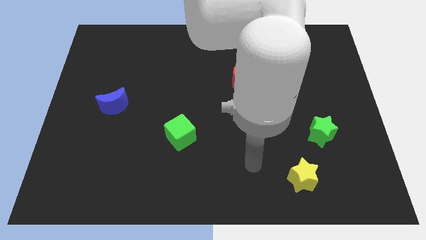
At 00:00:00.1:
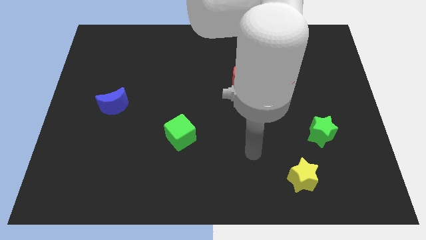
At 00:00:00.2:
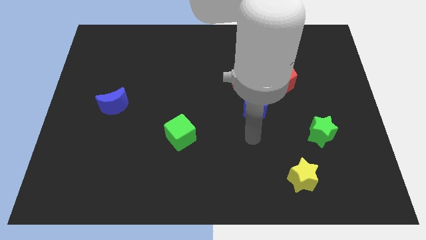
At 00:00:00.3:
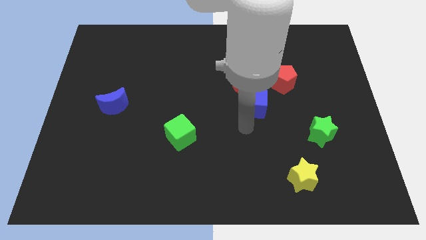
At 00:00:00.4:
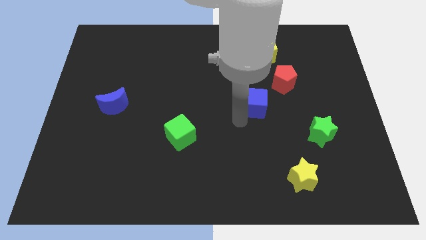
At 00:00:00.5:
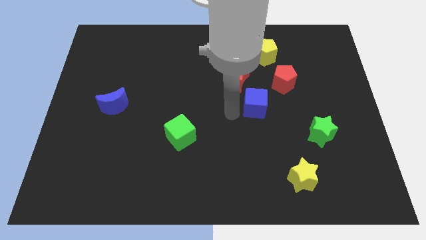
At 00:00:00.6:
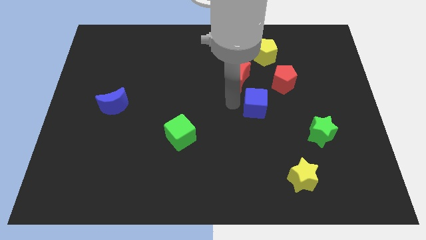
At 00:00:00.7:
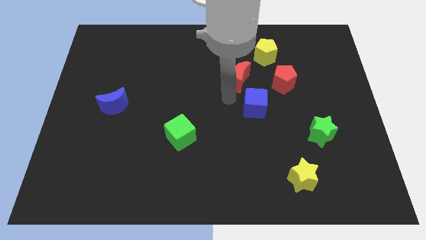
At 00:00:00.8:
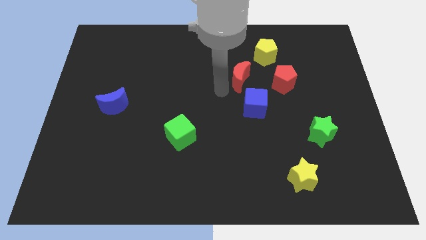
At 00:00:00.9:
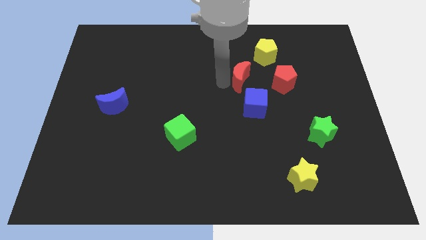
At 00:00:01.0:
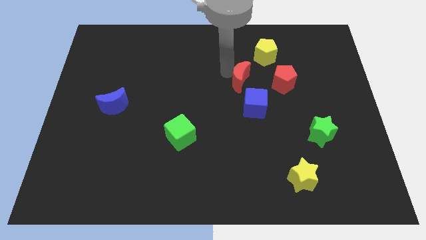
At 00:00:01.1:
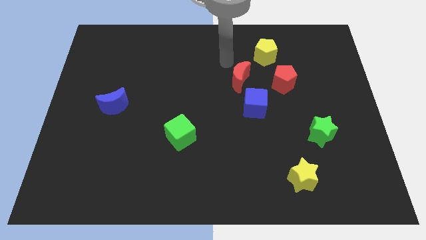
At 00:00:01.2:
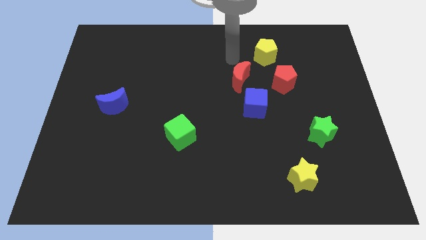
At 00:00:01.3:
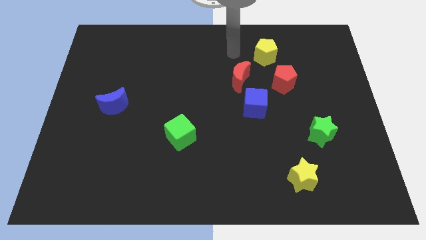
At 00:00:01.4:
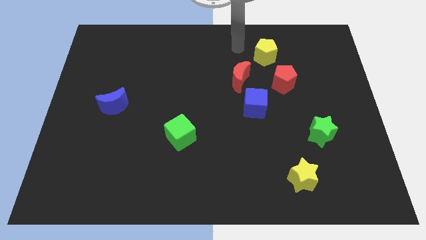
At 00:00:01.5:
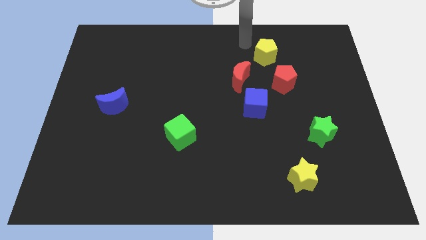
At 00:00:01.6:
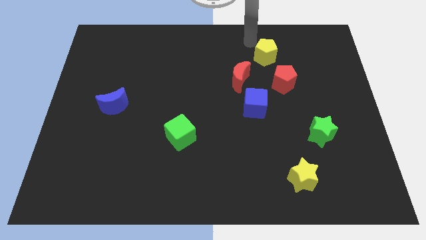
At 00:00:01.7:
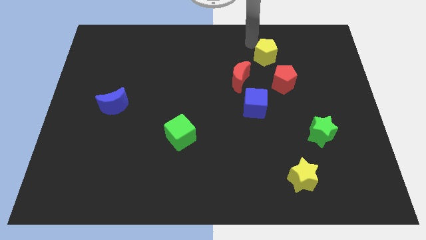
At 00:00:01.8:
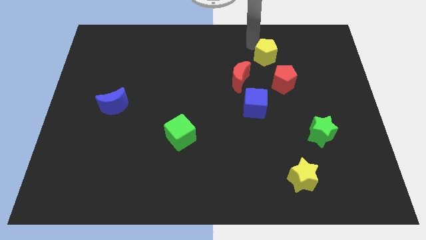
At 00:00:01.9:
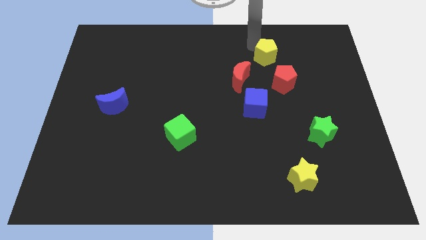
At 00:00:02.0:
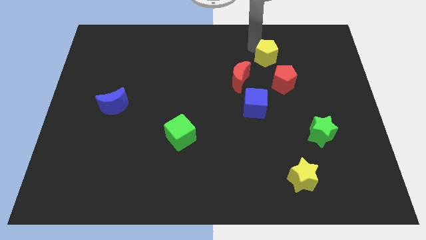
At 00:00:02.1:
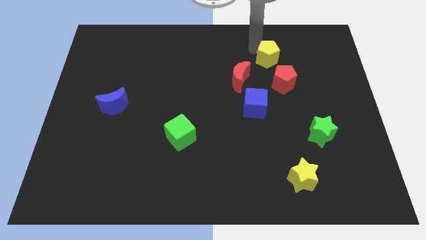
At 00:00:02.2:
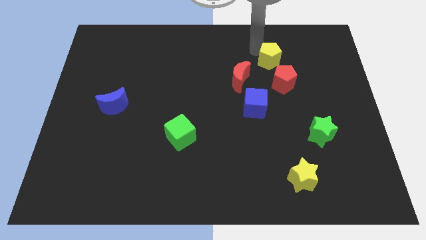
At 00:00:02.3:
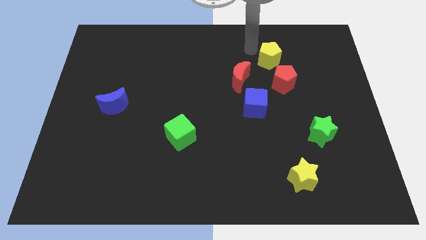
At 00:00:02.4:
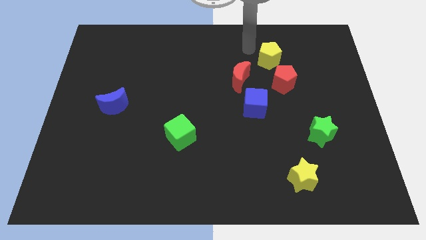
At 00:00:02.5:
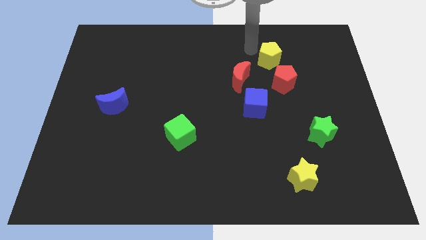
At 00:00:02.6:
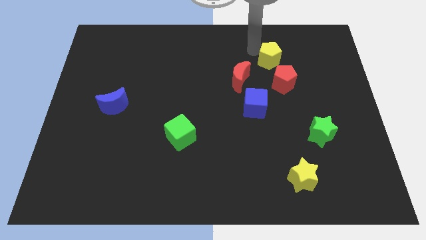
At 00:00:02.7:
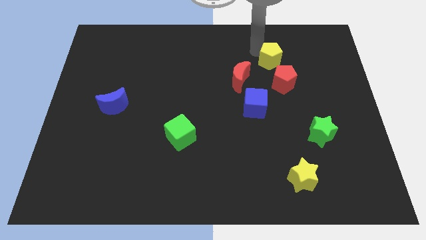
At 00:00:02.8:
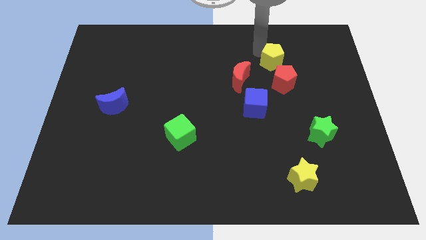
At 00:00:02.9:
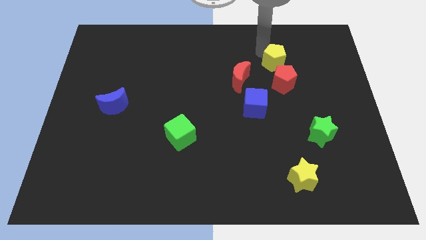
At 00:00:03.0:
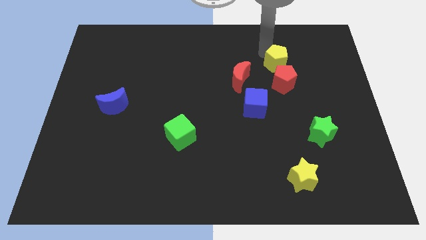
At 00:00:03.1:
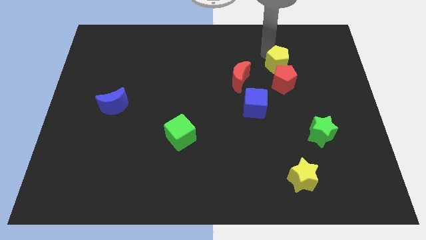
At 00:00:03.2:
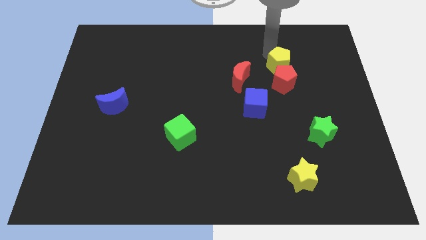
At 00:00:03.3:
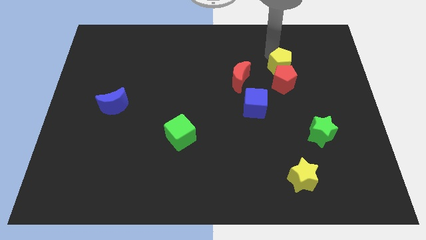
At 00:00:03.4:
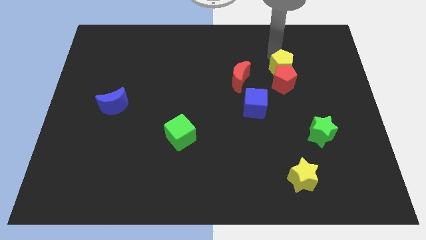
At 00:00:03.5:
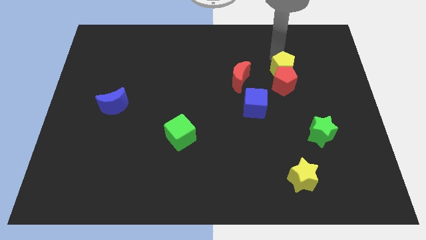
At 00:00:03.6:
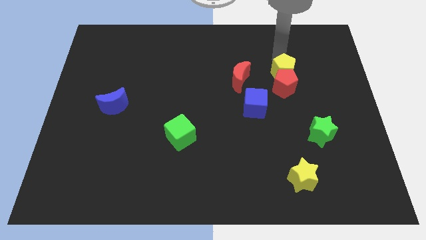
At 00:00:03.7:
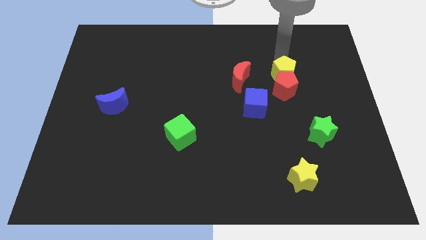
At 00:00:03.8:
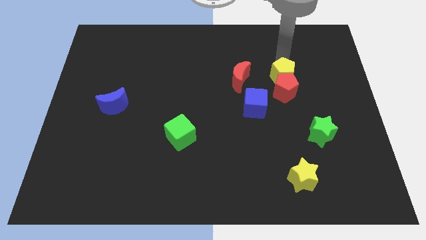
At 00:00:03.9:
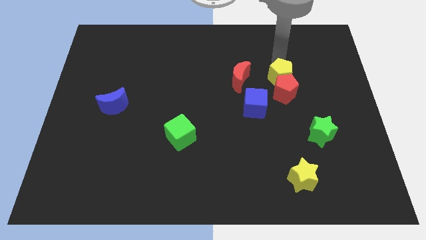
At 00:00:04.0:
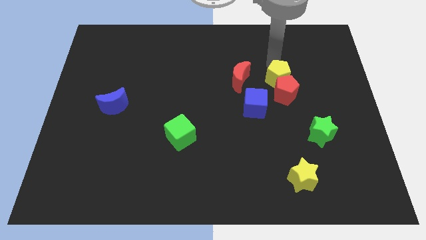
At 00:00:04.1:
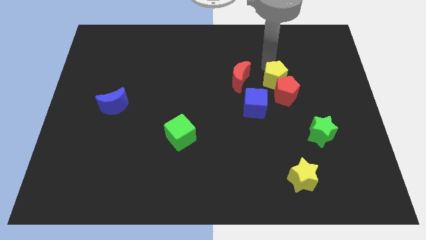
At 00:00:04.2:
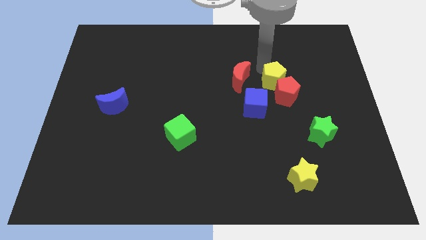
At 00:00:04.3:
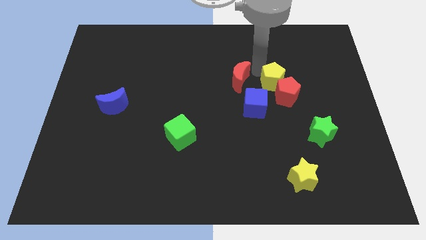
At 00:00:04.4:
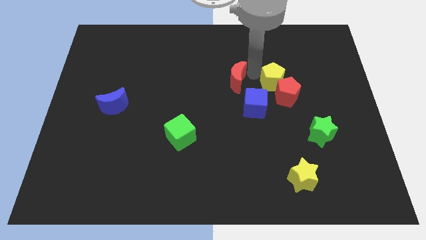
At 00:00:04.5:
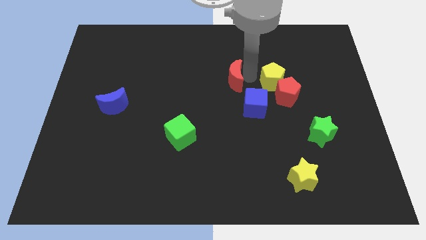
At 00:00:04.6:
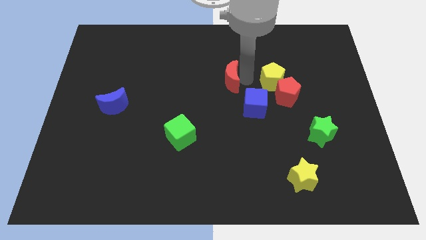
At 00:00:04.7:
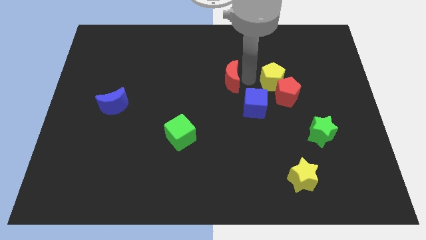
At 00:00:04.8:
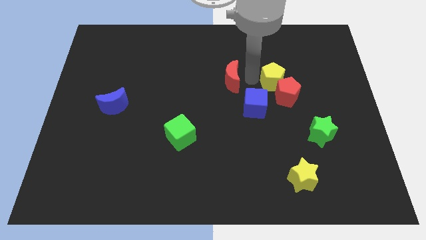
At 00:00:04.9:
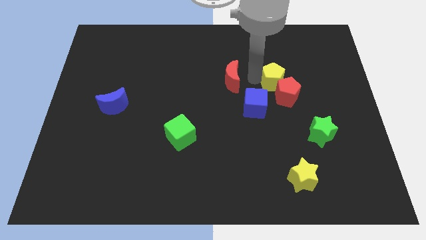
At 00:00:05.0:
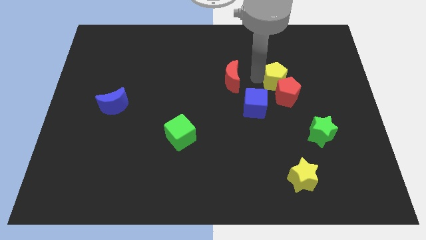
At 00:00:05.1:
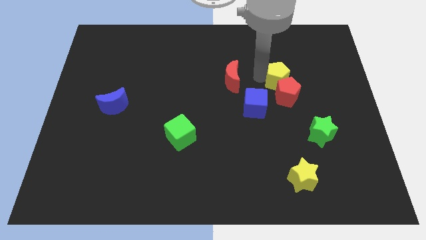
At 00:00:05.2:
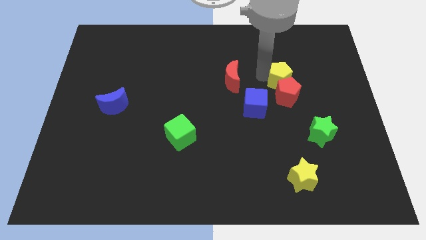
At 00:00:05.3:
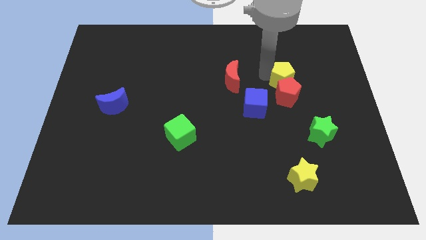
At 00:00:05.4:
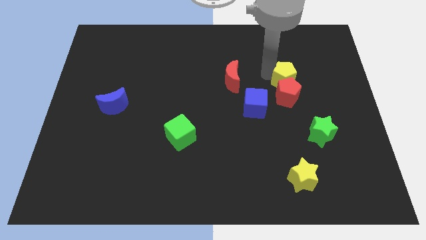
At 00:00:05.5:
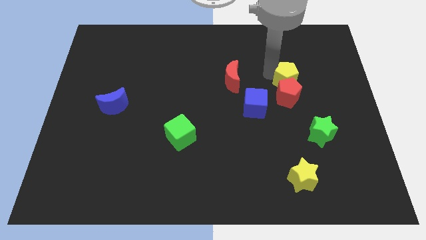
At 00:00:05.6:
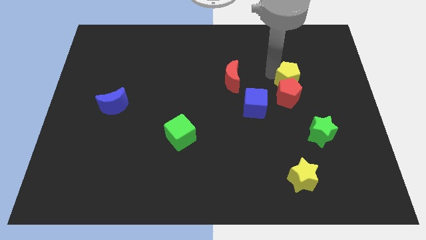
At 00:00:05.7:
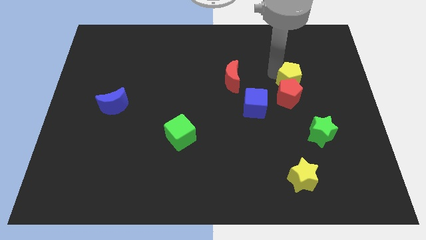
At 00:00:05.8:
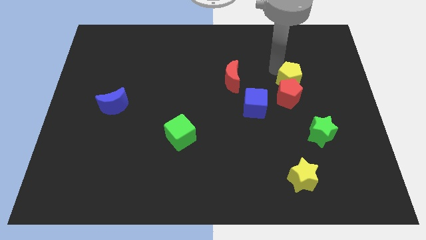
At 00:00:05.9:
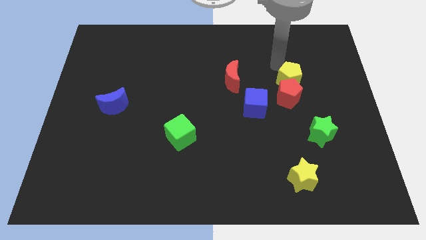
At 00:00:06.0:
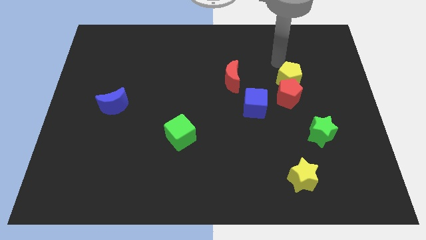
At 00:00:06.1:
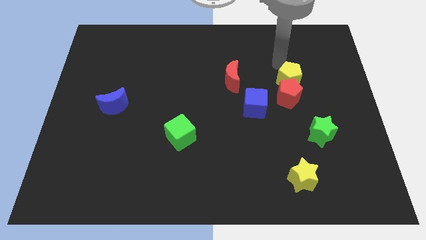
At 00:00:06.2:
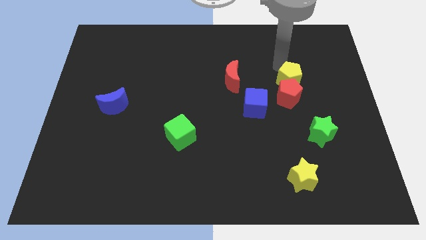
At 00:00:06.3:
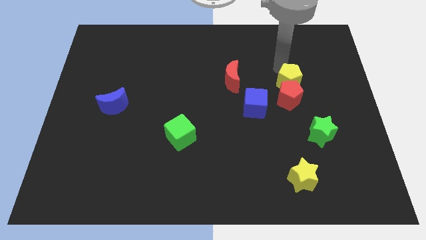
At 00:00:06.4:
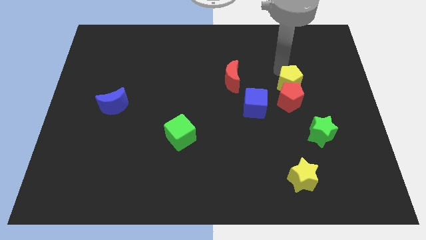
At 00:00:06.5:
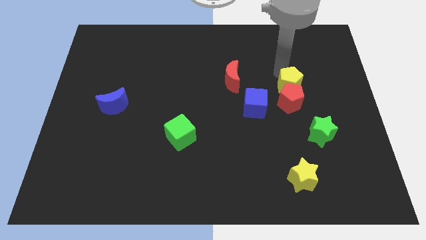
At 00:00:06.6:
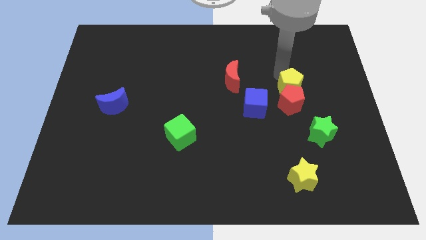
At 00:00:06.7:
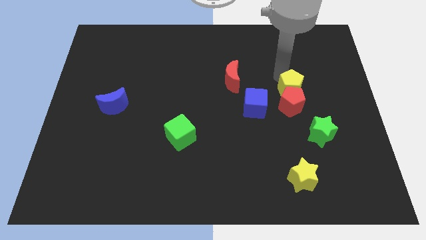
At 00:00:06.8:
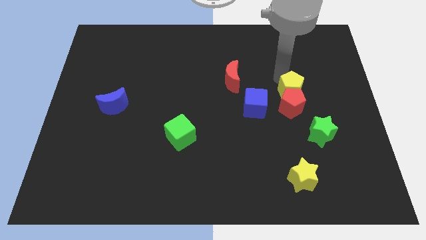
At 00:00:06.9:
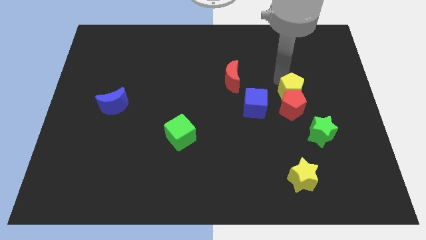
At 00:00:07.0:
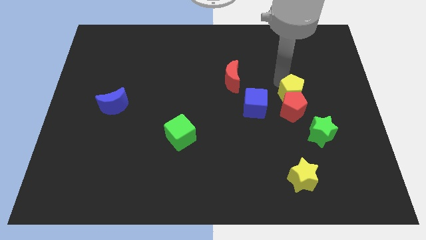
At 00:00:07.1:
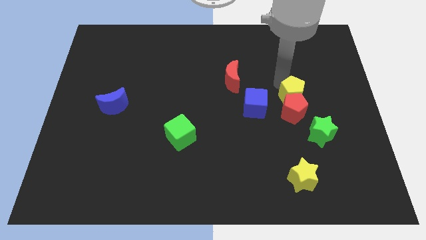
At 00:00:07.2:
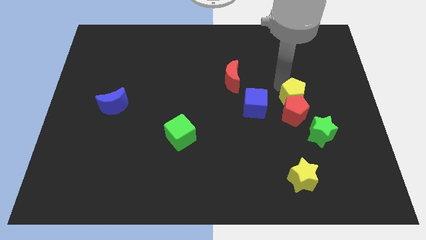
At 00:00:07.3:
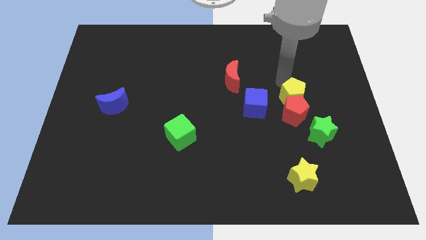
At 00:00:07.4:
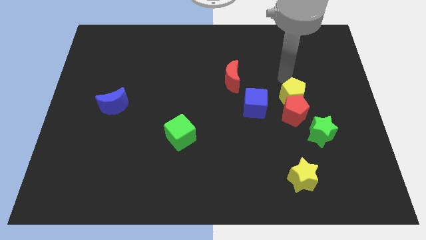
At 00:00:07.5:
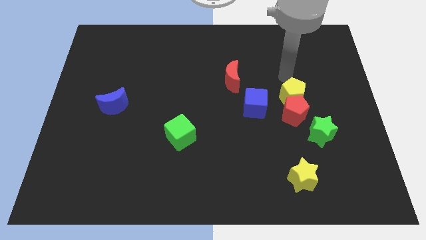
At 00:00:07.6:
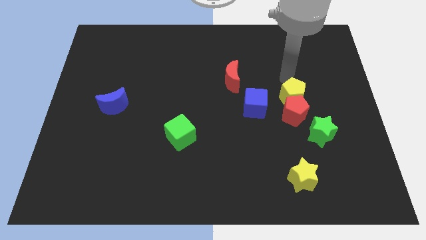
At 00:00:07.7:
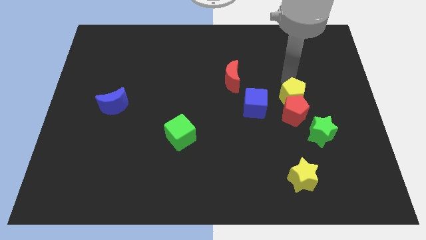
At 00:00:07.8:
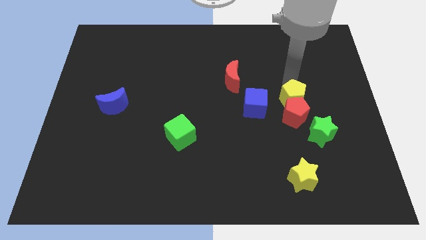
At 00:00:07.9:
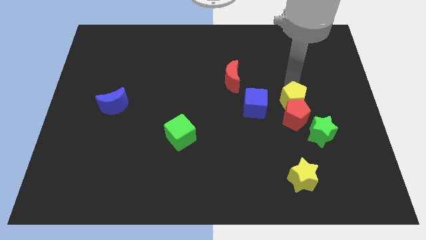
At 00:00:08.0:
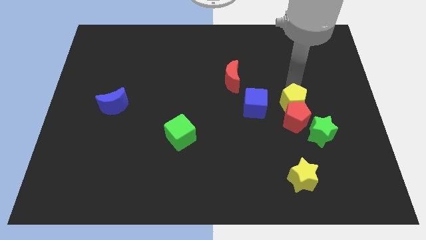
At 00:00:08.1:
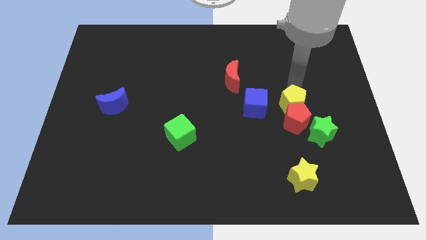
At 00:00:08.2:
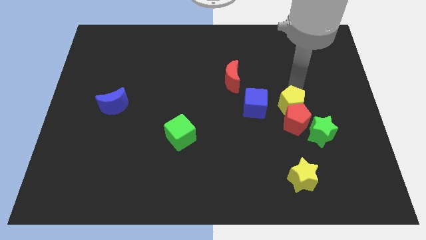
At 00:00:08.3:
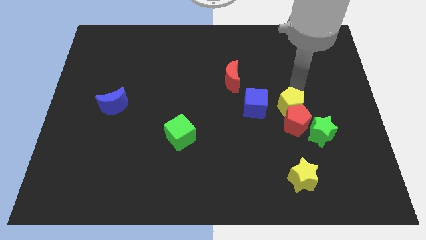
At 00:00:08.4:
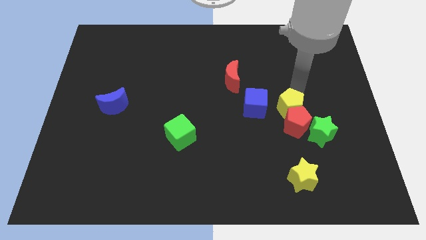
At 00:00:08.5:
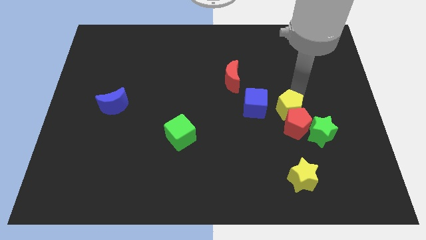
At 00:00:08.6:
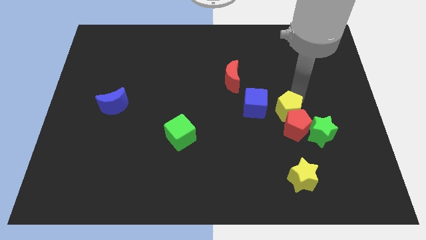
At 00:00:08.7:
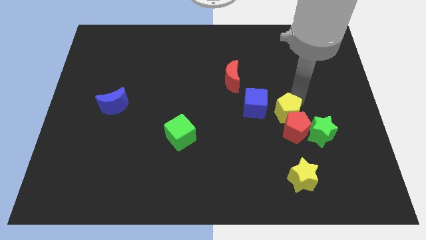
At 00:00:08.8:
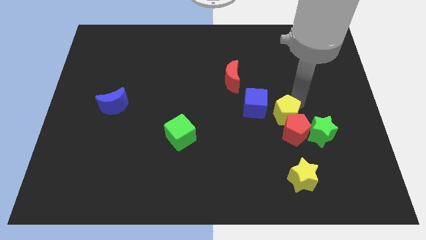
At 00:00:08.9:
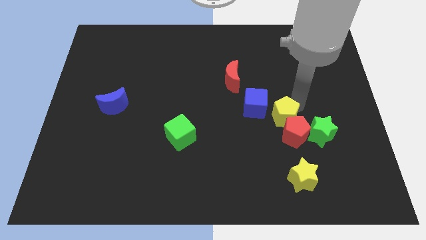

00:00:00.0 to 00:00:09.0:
push the yellow pentagon above the yellow star
